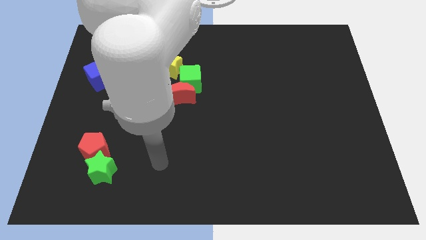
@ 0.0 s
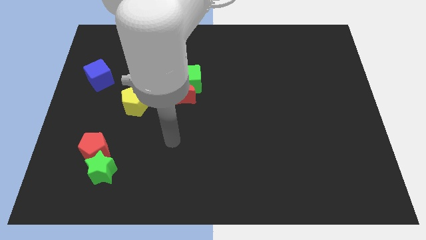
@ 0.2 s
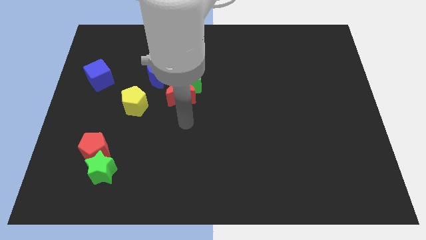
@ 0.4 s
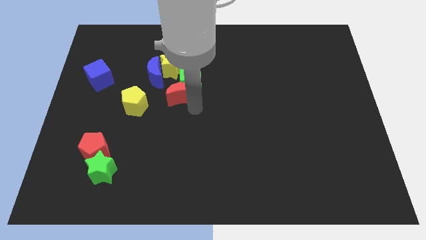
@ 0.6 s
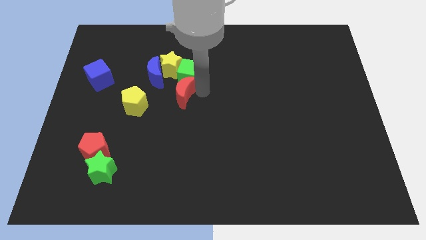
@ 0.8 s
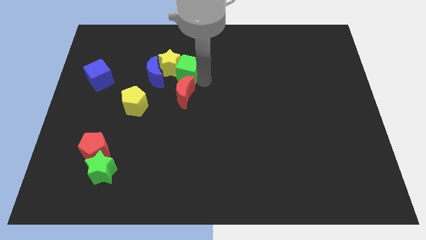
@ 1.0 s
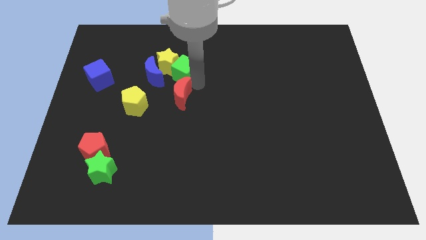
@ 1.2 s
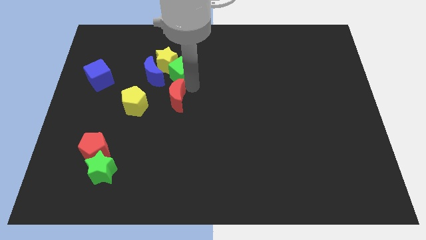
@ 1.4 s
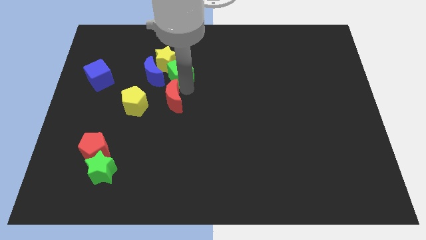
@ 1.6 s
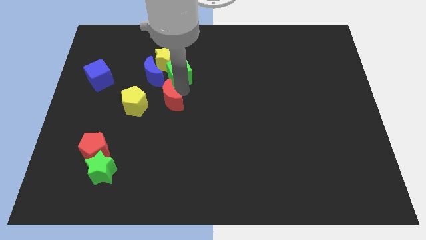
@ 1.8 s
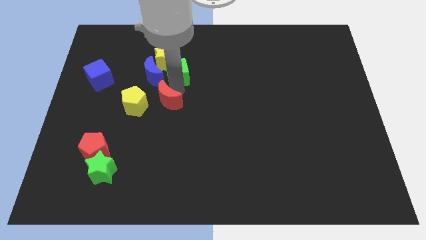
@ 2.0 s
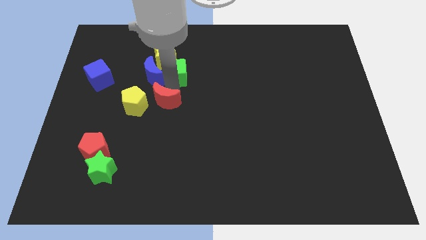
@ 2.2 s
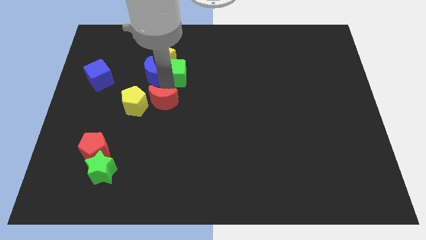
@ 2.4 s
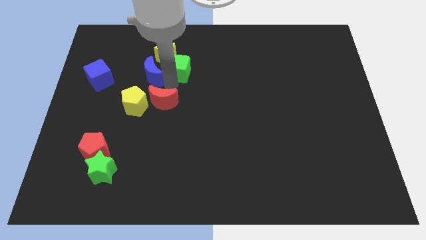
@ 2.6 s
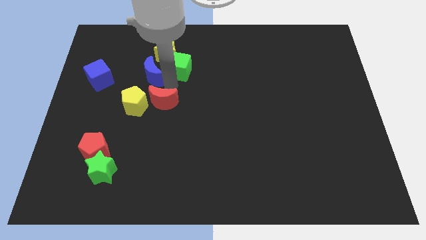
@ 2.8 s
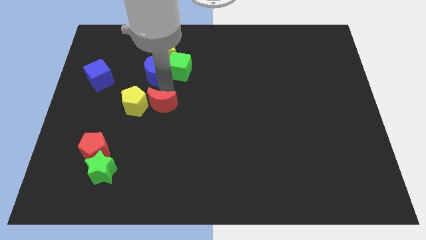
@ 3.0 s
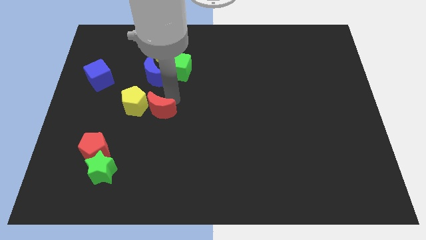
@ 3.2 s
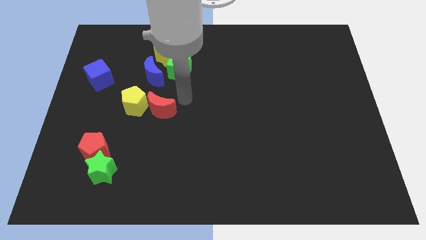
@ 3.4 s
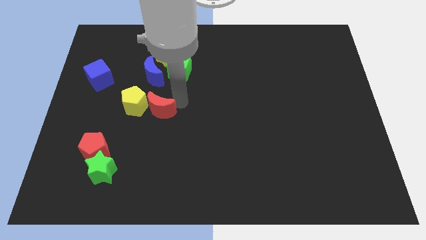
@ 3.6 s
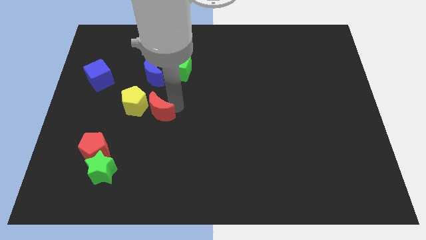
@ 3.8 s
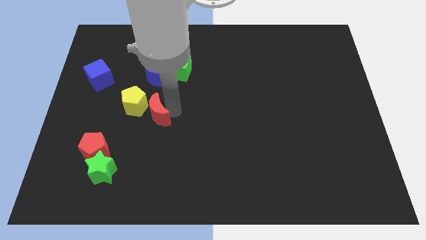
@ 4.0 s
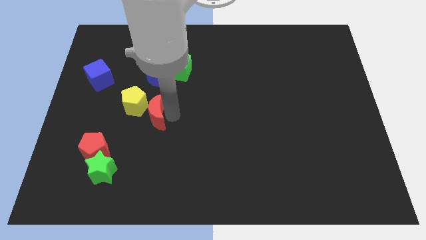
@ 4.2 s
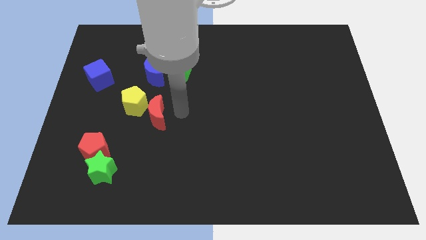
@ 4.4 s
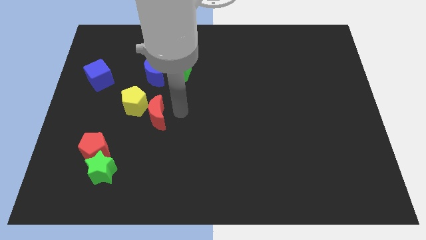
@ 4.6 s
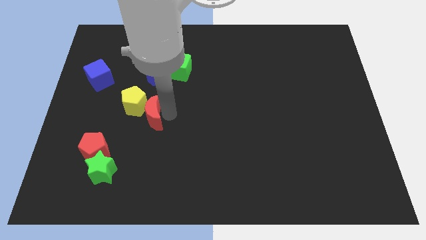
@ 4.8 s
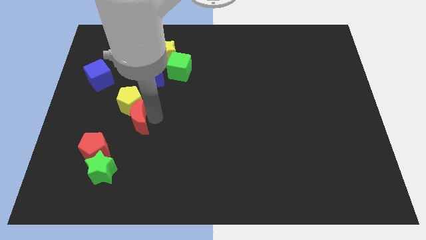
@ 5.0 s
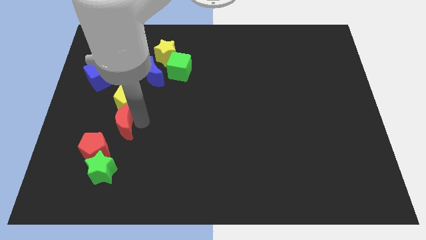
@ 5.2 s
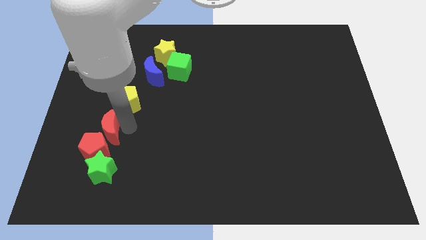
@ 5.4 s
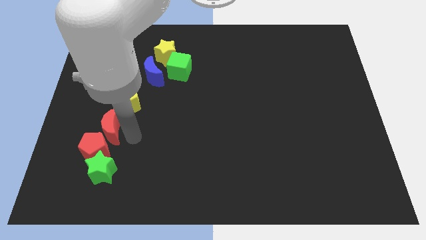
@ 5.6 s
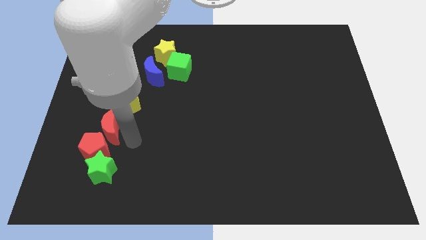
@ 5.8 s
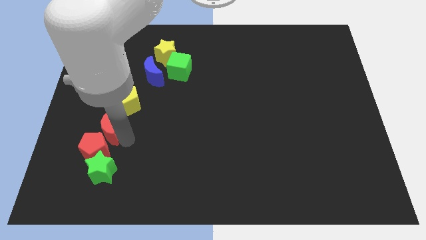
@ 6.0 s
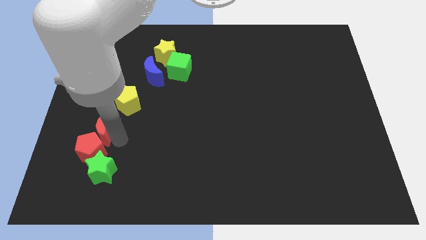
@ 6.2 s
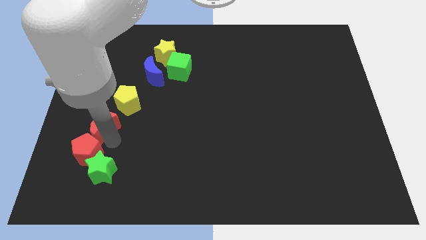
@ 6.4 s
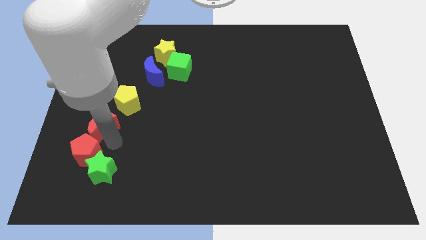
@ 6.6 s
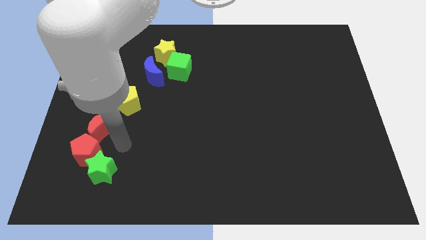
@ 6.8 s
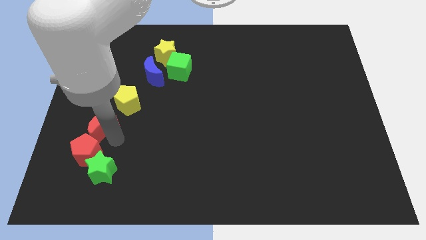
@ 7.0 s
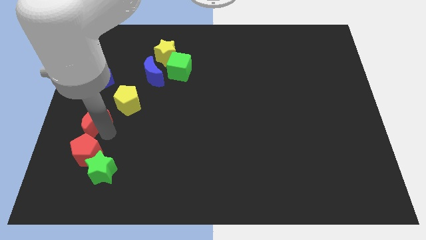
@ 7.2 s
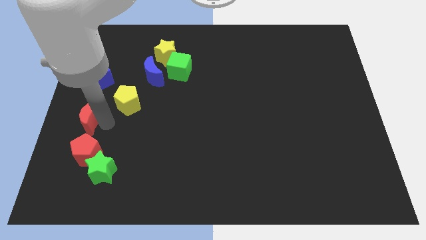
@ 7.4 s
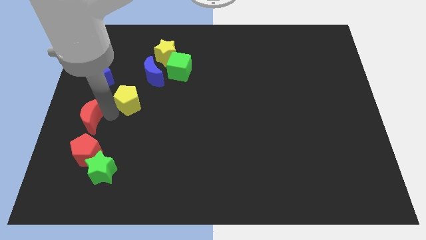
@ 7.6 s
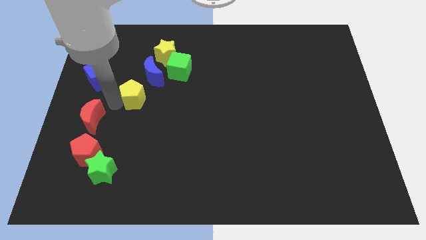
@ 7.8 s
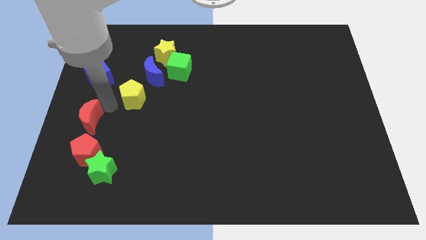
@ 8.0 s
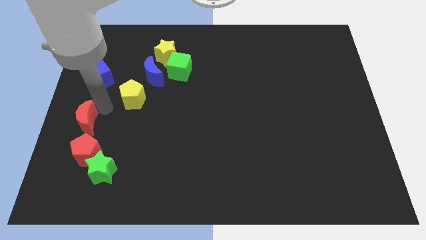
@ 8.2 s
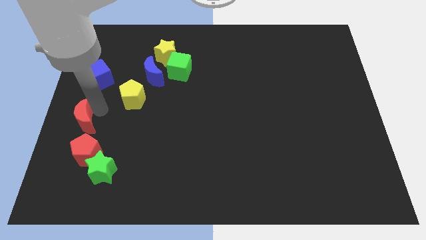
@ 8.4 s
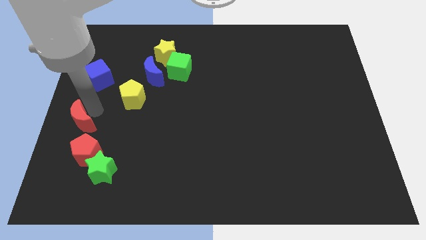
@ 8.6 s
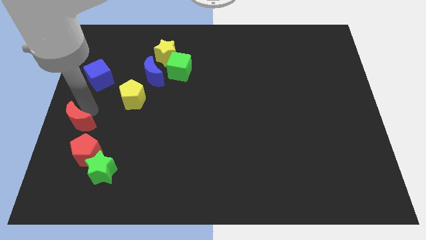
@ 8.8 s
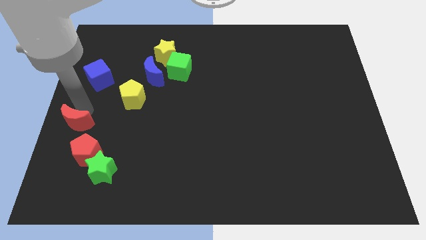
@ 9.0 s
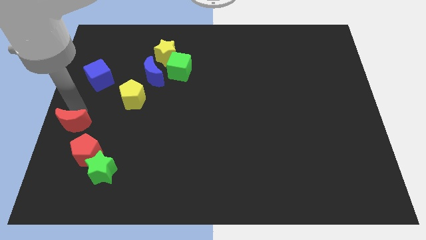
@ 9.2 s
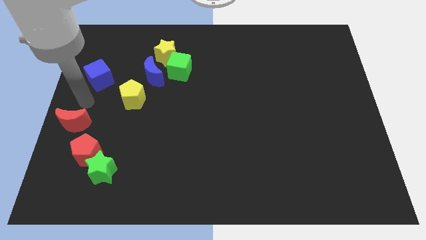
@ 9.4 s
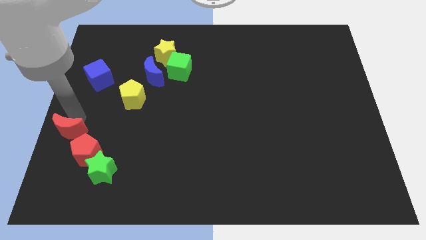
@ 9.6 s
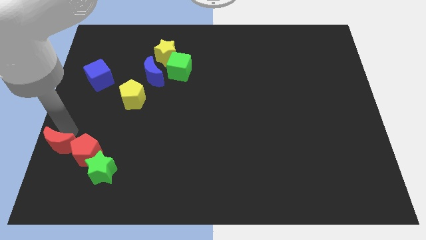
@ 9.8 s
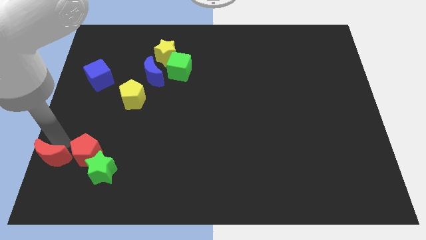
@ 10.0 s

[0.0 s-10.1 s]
move the red moon to the bottom left corner

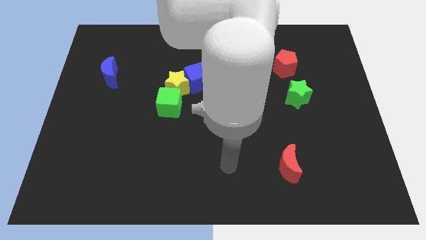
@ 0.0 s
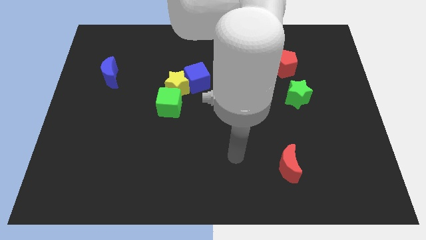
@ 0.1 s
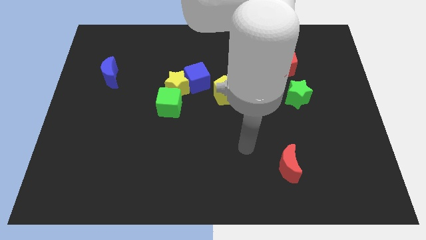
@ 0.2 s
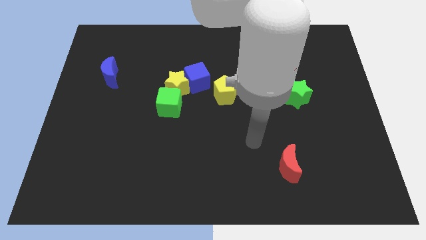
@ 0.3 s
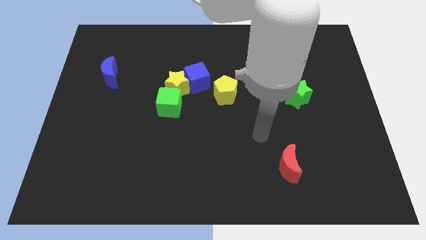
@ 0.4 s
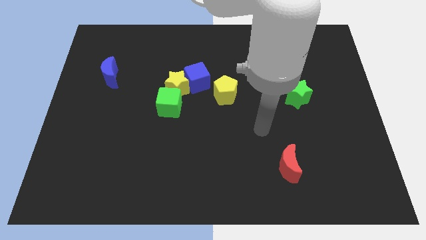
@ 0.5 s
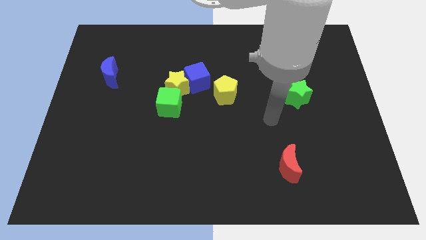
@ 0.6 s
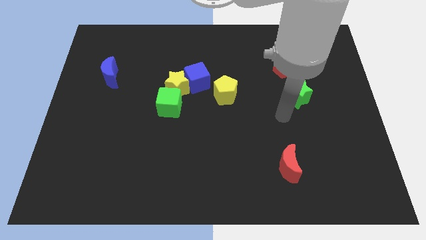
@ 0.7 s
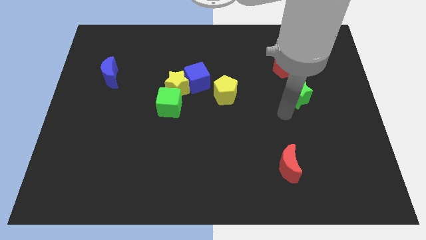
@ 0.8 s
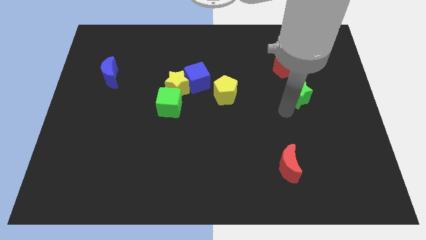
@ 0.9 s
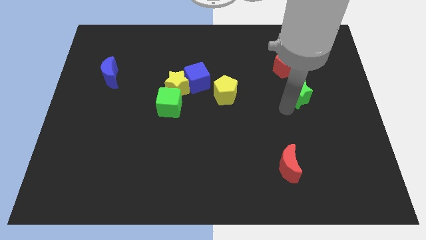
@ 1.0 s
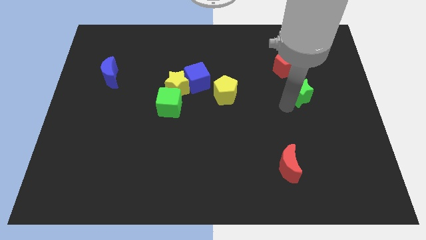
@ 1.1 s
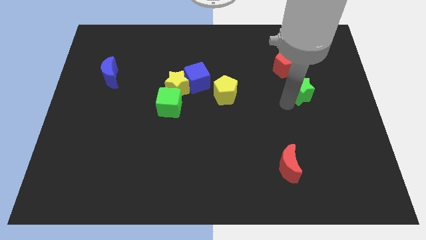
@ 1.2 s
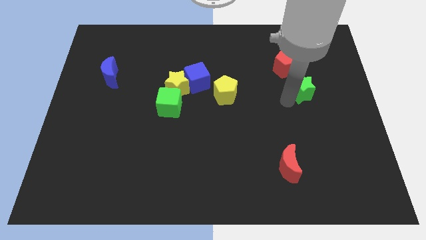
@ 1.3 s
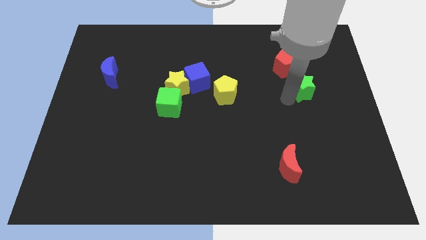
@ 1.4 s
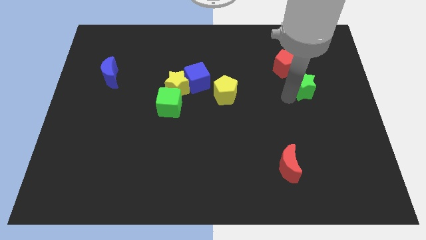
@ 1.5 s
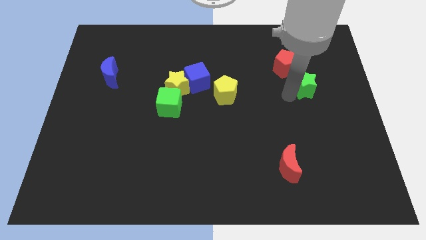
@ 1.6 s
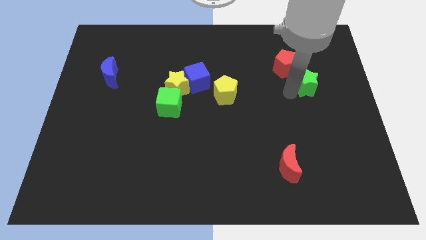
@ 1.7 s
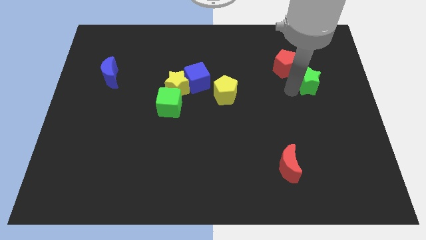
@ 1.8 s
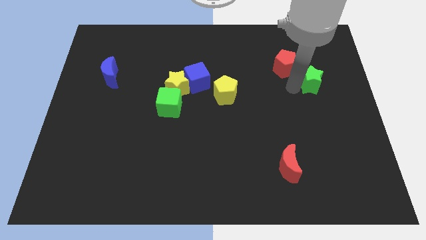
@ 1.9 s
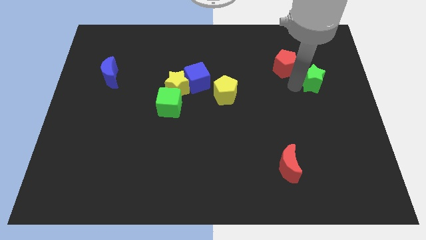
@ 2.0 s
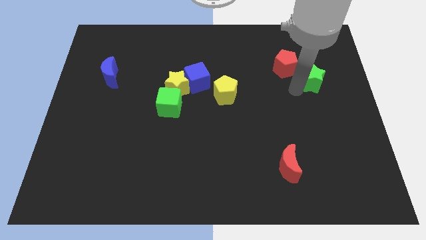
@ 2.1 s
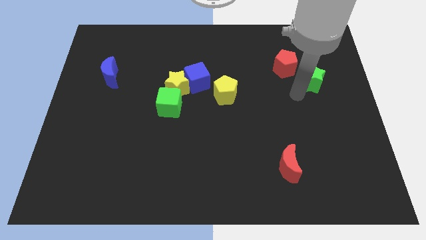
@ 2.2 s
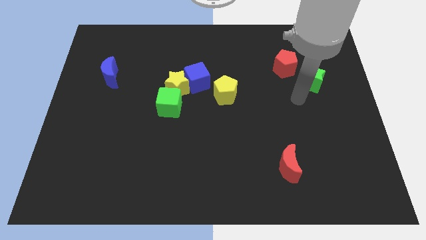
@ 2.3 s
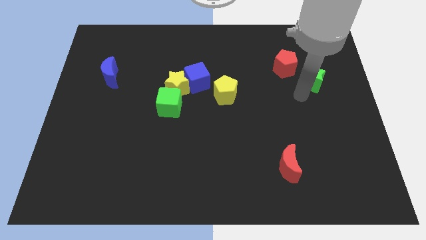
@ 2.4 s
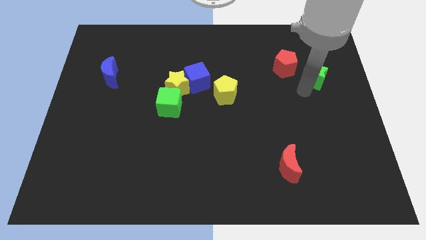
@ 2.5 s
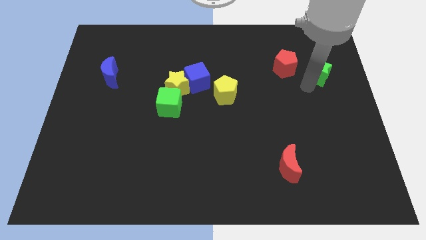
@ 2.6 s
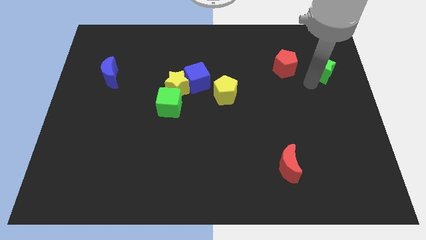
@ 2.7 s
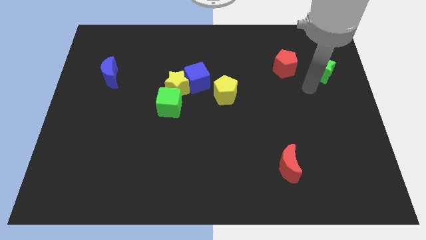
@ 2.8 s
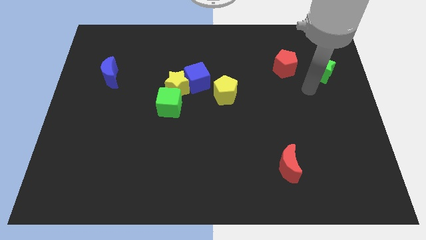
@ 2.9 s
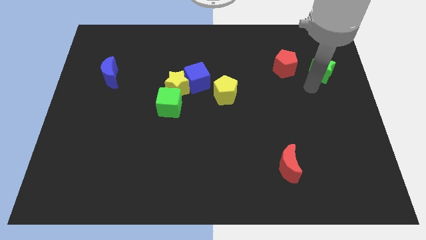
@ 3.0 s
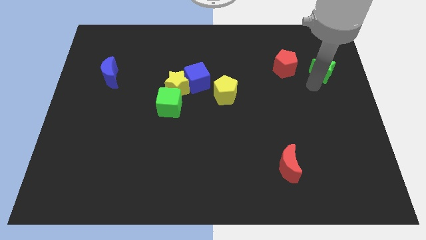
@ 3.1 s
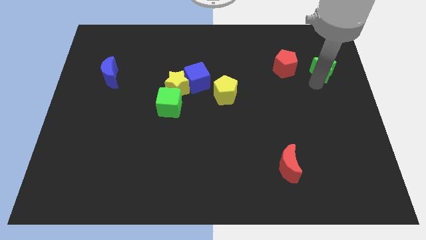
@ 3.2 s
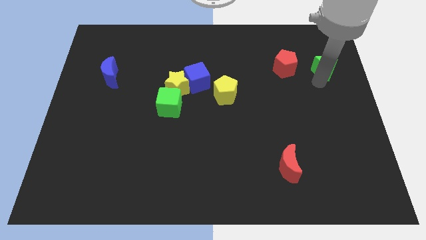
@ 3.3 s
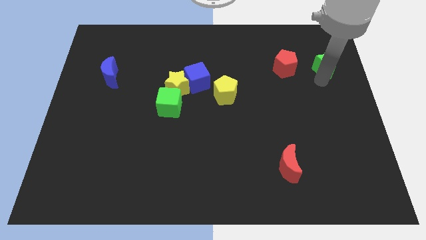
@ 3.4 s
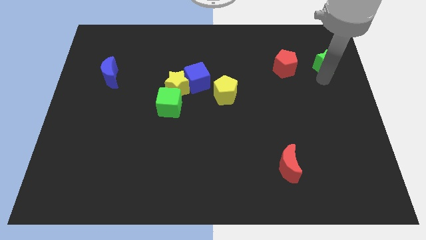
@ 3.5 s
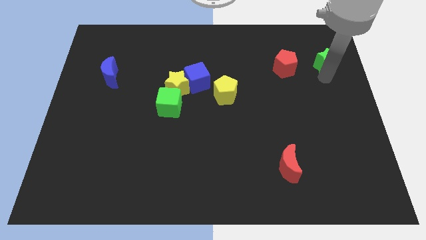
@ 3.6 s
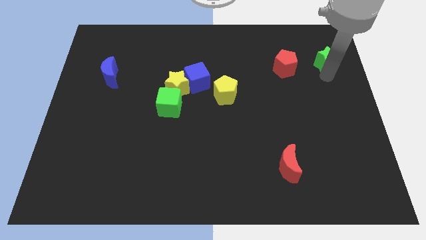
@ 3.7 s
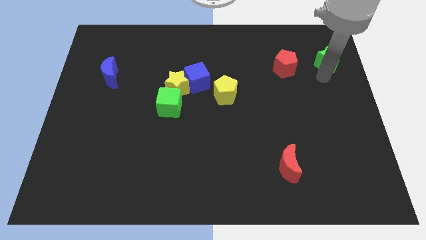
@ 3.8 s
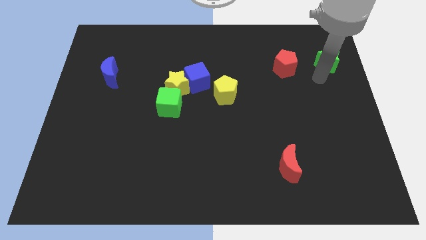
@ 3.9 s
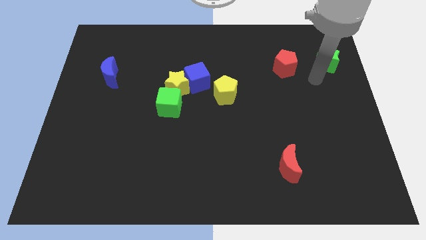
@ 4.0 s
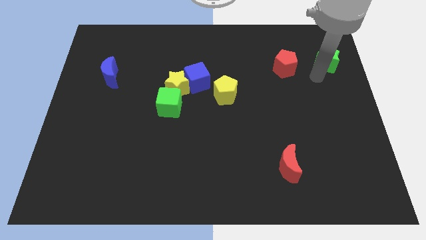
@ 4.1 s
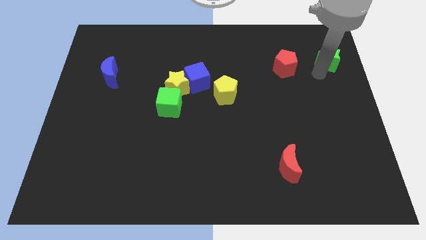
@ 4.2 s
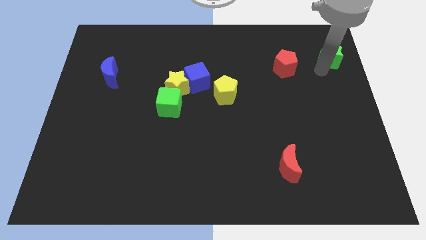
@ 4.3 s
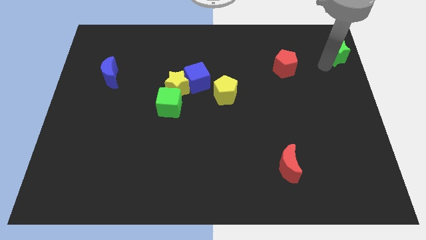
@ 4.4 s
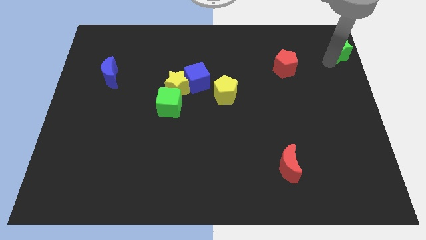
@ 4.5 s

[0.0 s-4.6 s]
push the green star to the upper right corner
